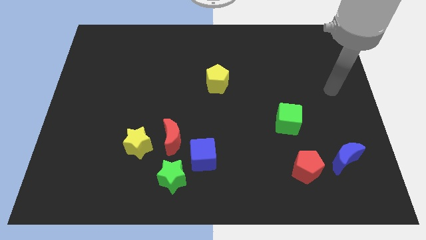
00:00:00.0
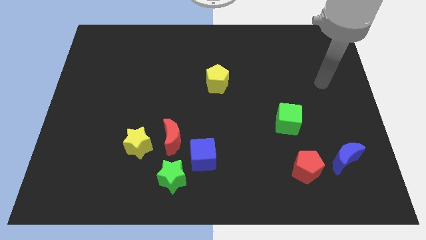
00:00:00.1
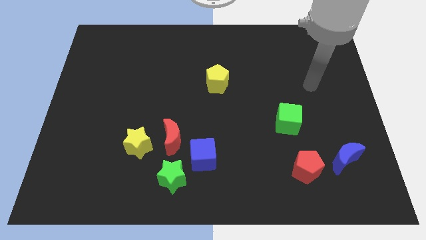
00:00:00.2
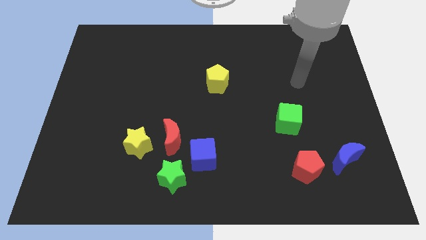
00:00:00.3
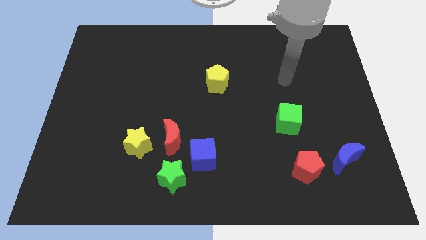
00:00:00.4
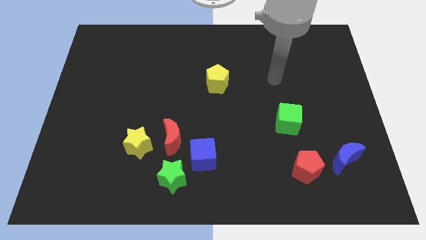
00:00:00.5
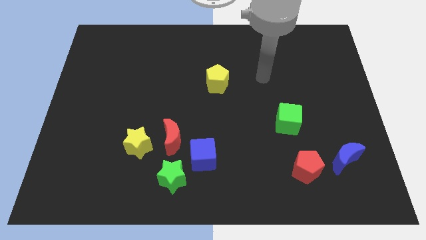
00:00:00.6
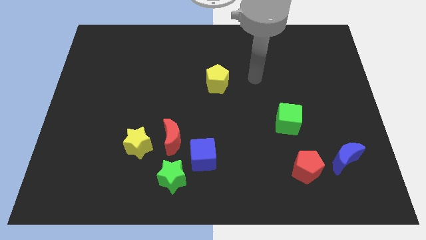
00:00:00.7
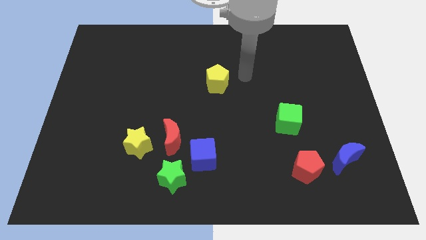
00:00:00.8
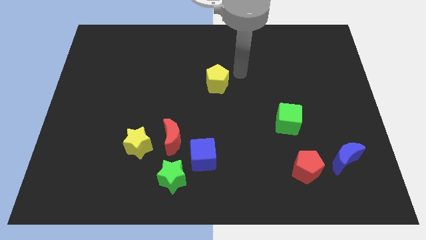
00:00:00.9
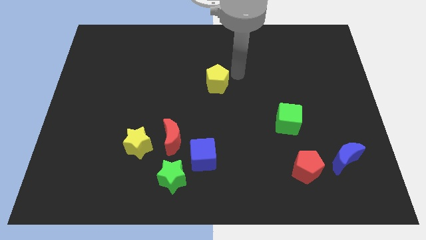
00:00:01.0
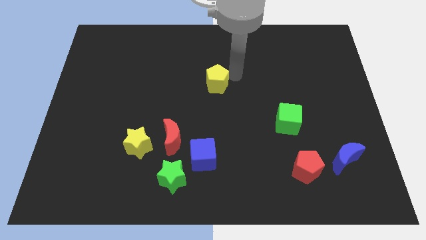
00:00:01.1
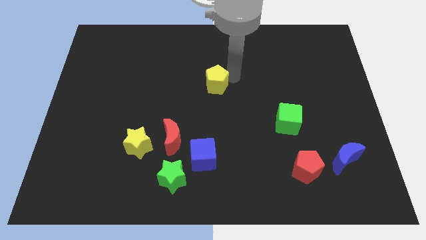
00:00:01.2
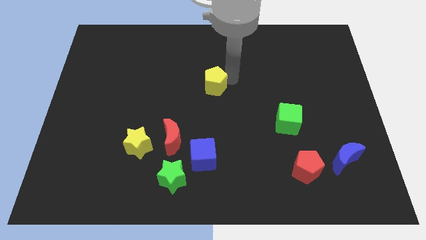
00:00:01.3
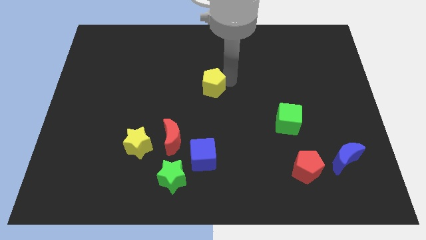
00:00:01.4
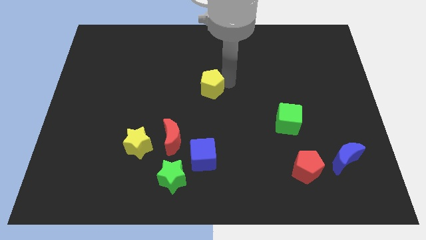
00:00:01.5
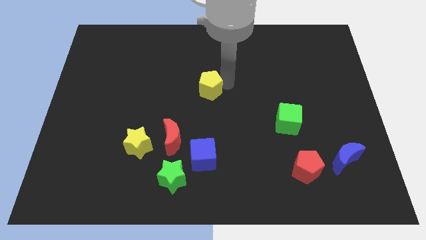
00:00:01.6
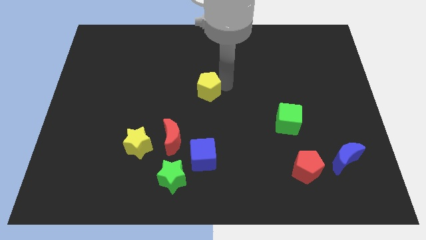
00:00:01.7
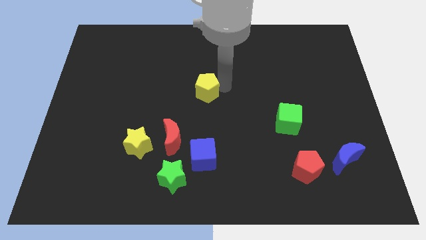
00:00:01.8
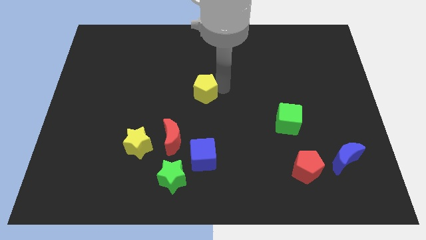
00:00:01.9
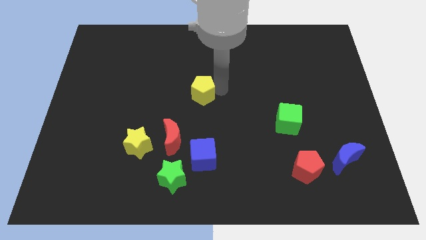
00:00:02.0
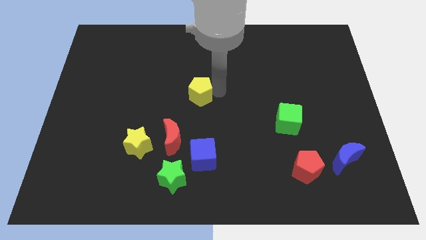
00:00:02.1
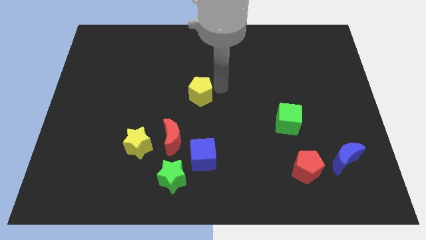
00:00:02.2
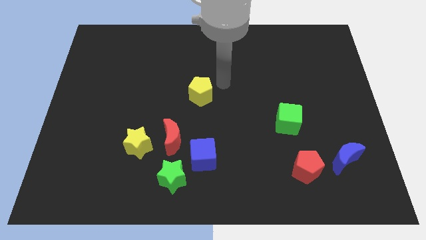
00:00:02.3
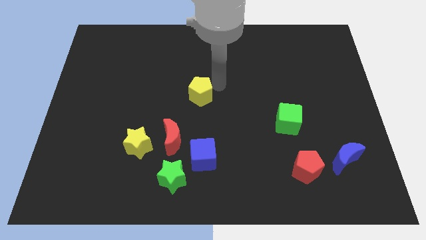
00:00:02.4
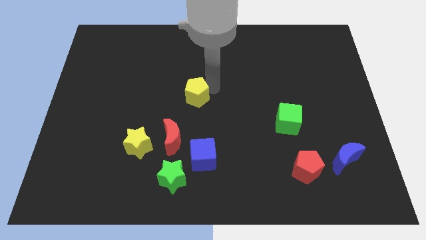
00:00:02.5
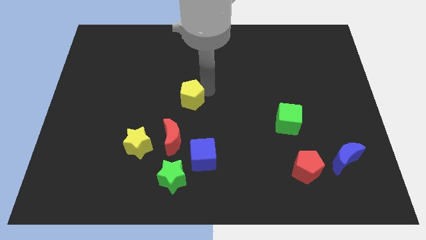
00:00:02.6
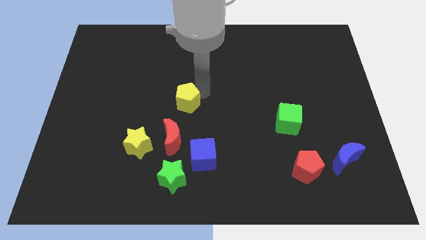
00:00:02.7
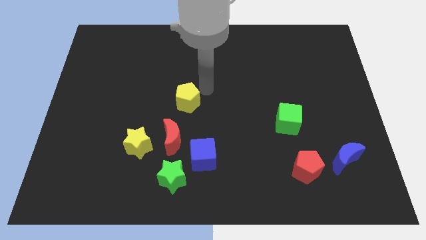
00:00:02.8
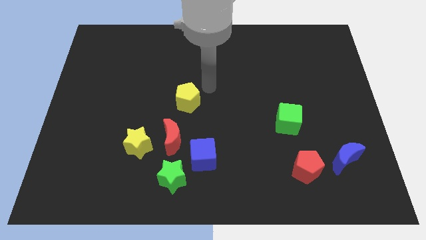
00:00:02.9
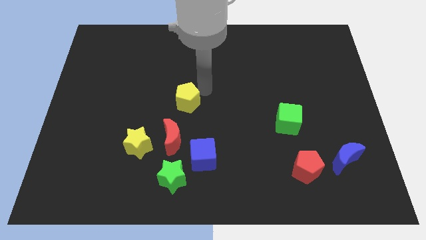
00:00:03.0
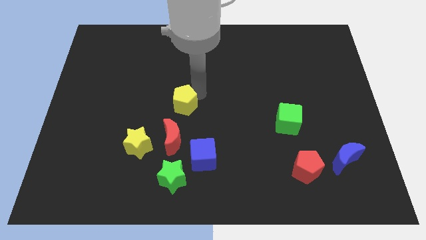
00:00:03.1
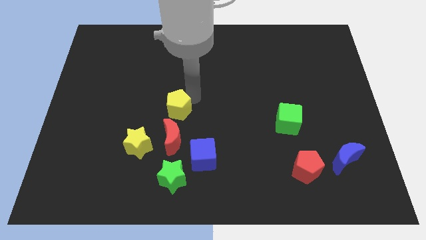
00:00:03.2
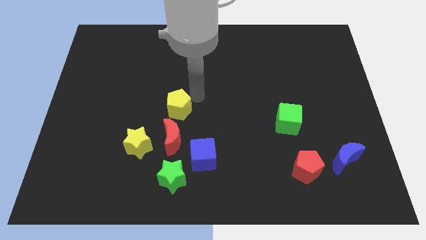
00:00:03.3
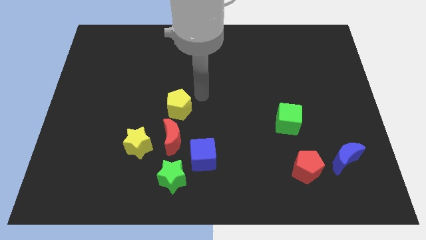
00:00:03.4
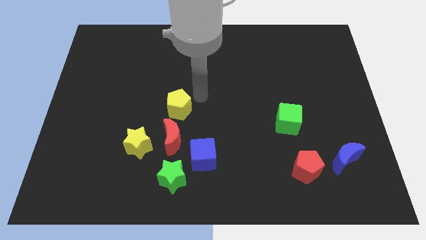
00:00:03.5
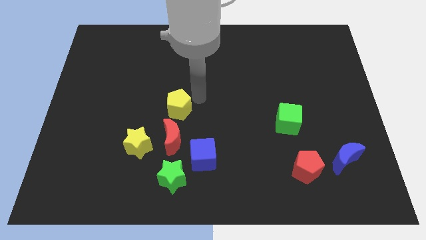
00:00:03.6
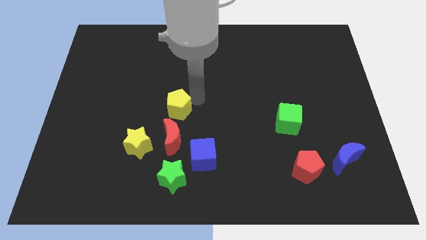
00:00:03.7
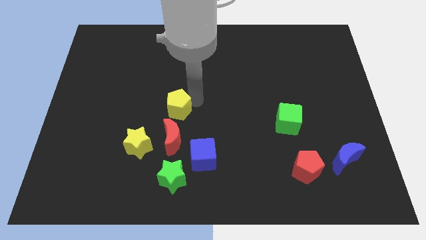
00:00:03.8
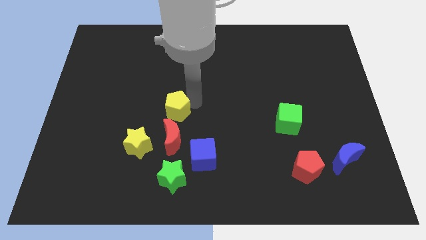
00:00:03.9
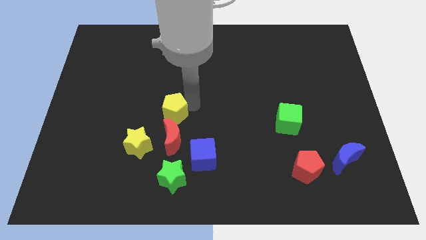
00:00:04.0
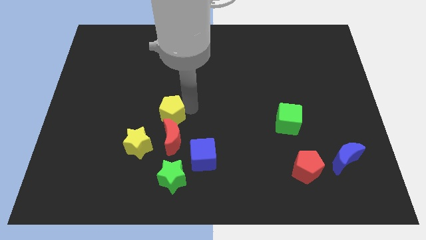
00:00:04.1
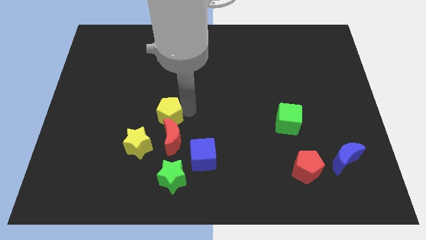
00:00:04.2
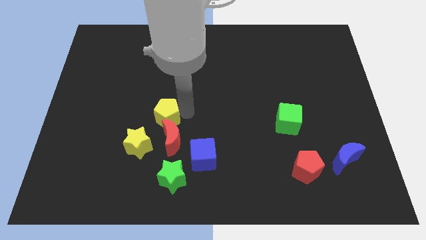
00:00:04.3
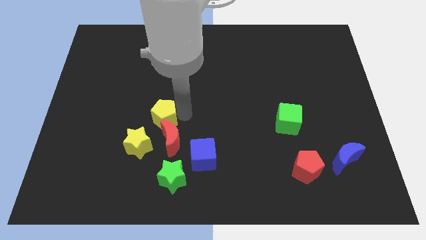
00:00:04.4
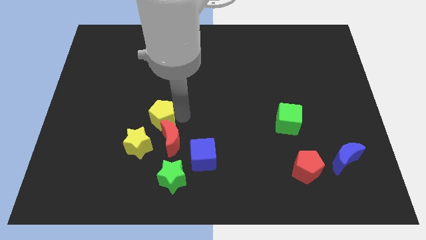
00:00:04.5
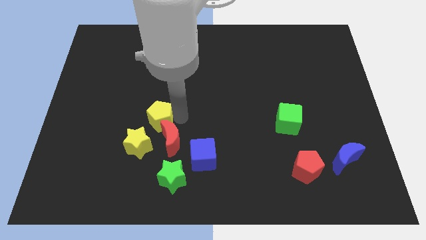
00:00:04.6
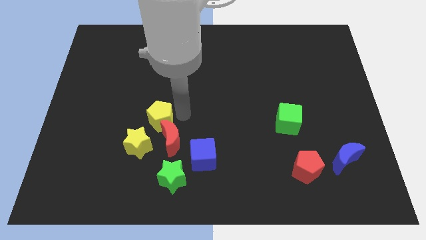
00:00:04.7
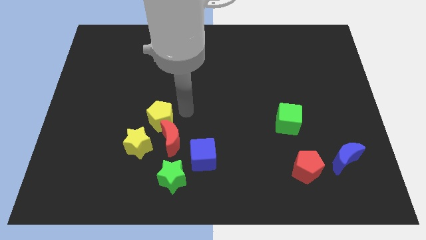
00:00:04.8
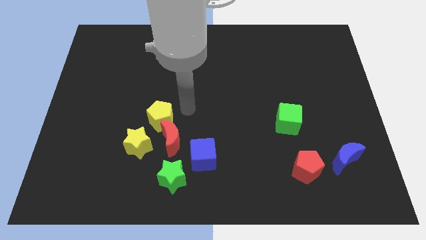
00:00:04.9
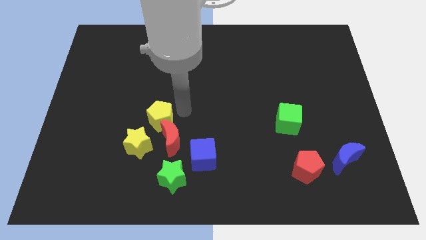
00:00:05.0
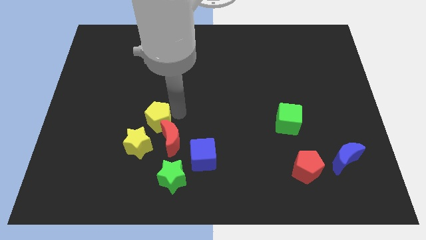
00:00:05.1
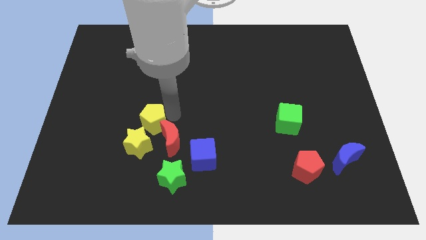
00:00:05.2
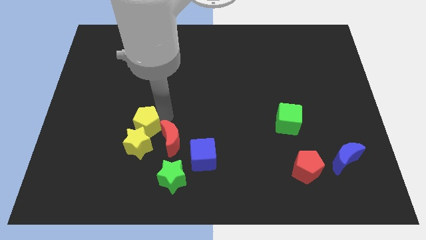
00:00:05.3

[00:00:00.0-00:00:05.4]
push the yellow pentagon close to the yellow star

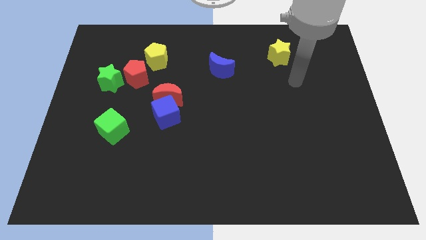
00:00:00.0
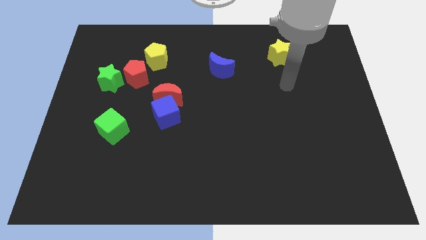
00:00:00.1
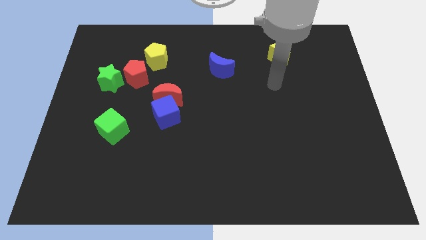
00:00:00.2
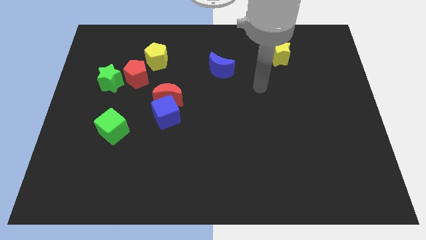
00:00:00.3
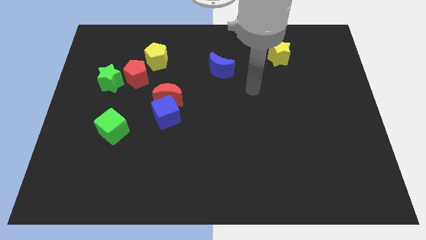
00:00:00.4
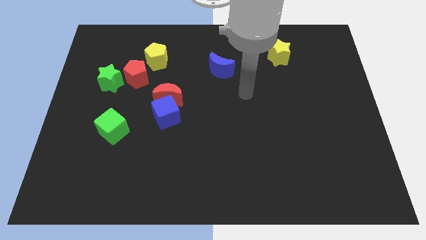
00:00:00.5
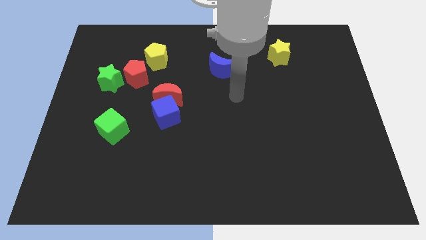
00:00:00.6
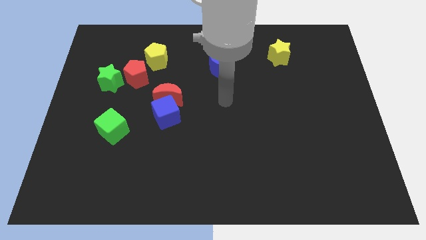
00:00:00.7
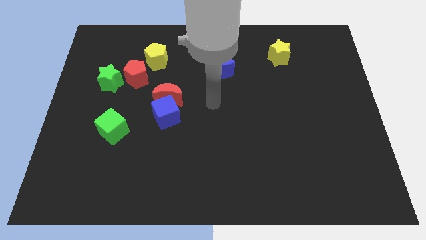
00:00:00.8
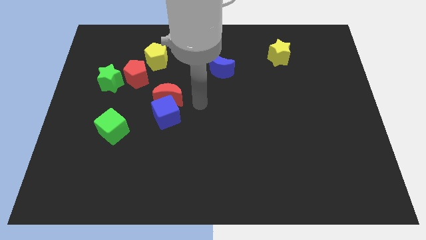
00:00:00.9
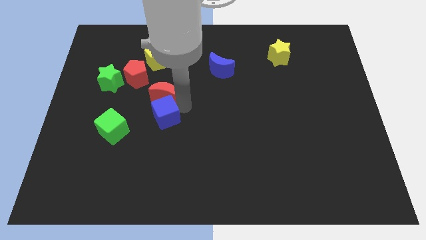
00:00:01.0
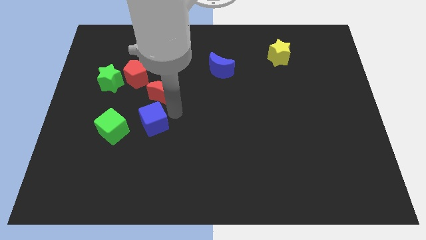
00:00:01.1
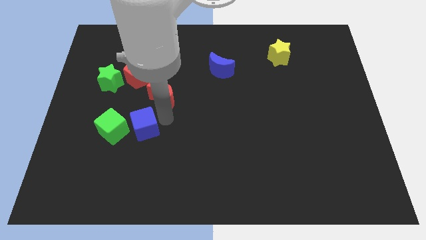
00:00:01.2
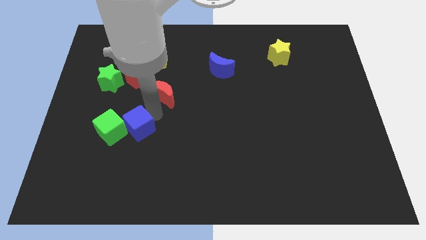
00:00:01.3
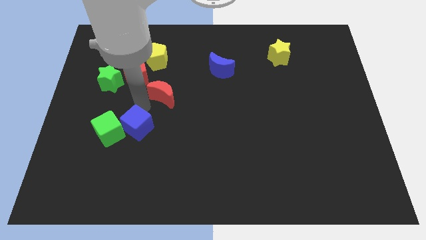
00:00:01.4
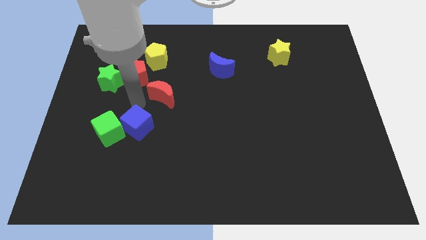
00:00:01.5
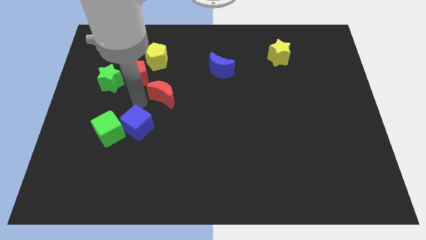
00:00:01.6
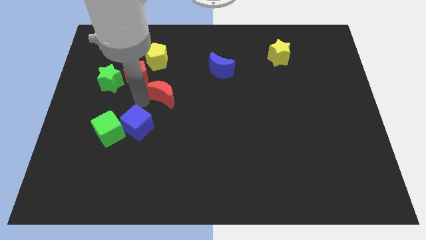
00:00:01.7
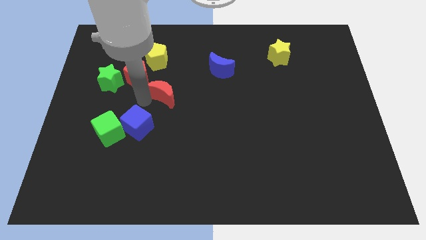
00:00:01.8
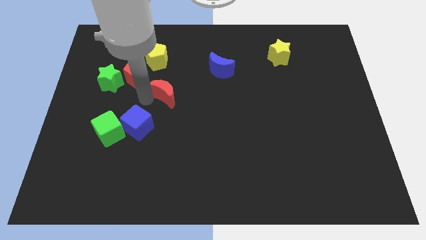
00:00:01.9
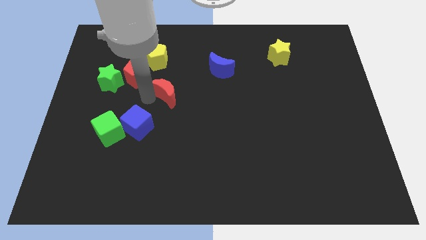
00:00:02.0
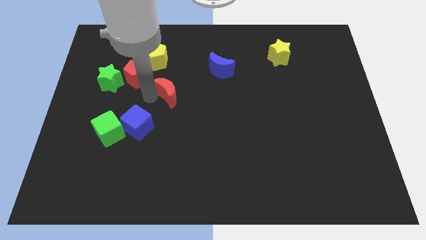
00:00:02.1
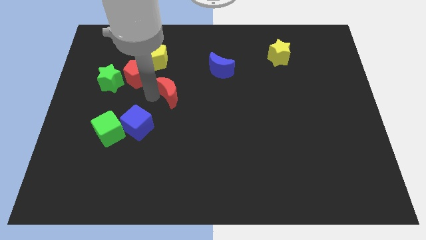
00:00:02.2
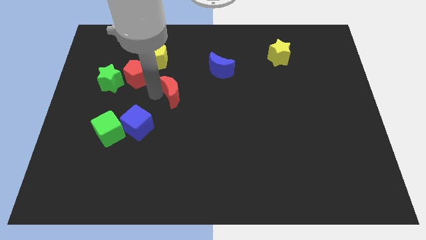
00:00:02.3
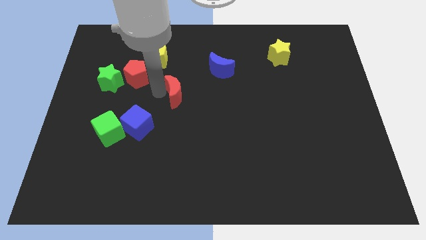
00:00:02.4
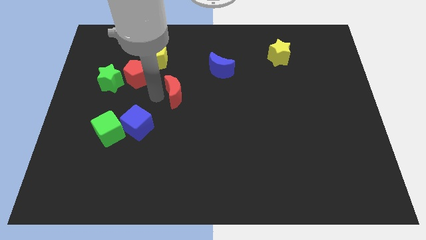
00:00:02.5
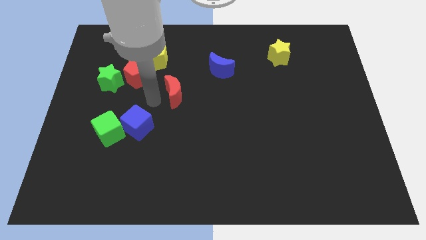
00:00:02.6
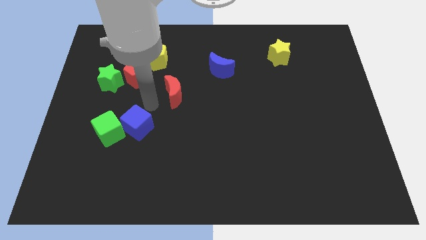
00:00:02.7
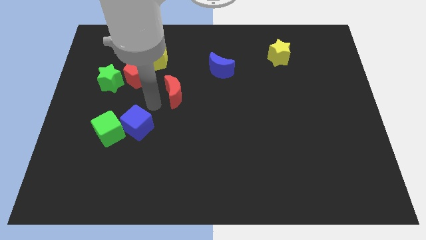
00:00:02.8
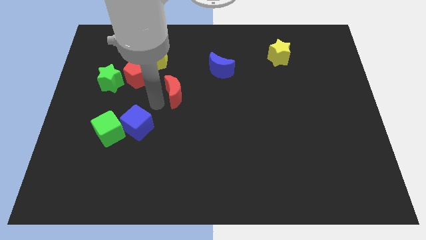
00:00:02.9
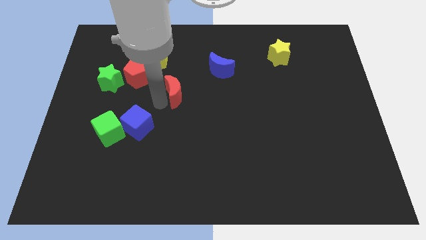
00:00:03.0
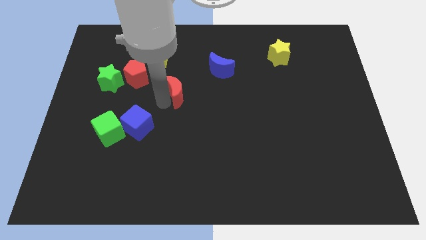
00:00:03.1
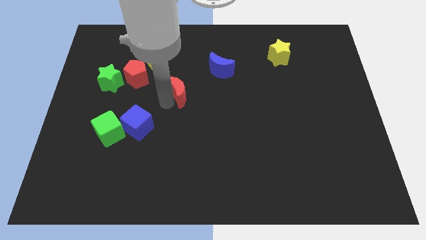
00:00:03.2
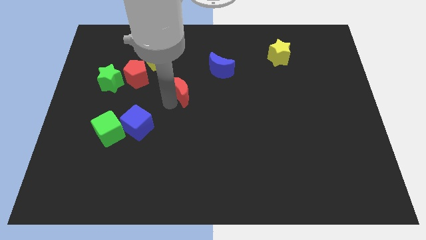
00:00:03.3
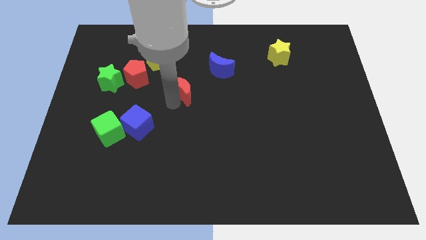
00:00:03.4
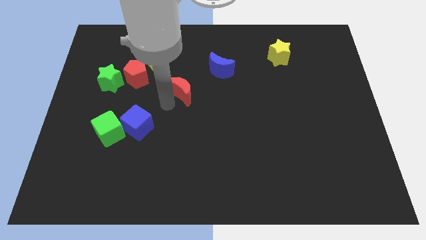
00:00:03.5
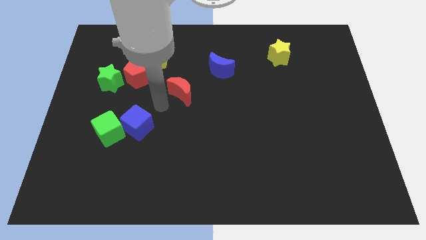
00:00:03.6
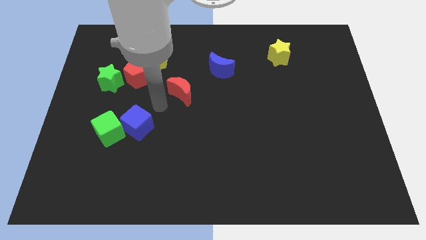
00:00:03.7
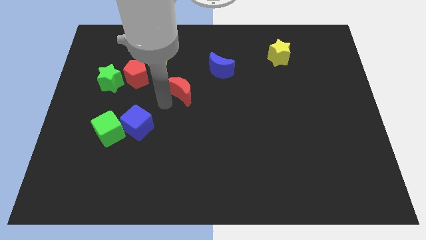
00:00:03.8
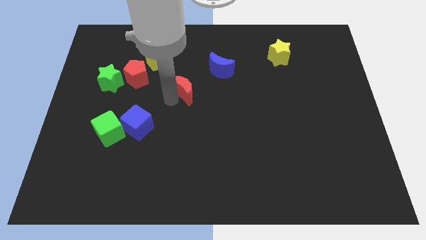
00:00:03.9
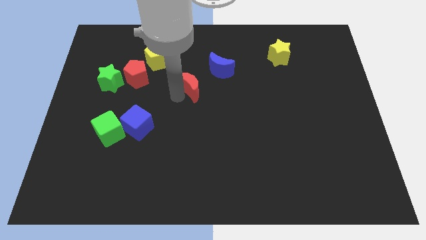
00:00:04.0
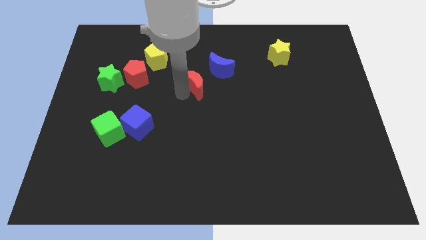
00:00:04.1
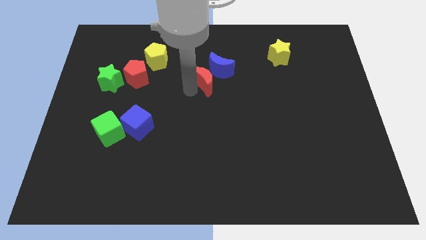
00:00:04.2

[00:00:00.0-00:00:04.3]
slide the red moon close to the blue moon
